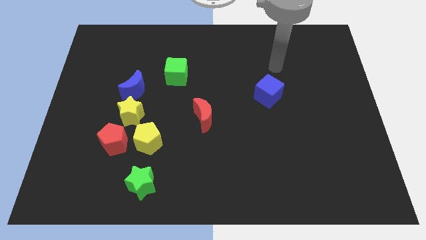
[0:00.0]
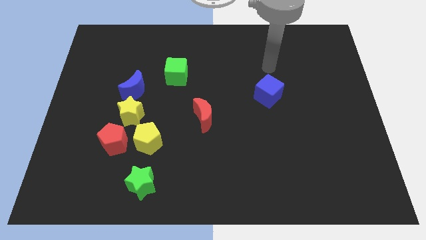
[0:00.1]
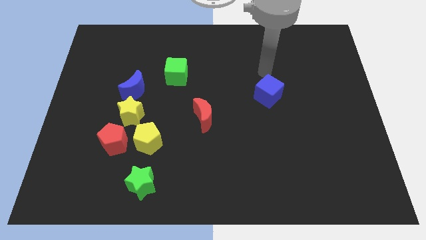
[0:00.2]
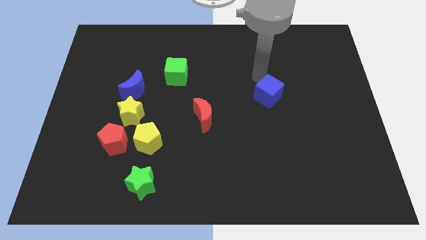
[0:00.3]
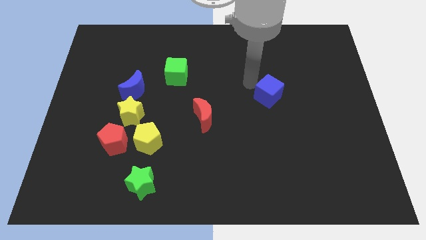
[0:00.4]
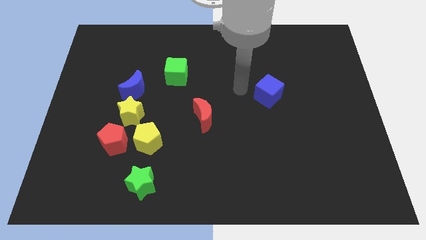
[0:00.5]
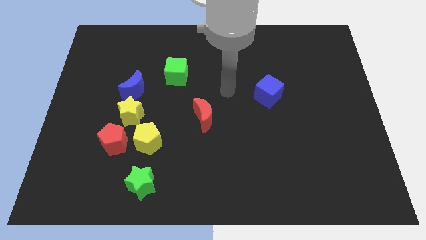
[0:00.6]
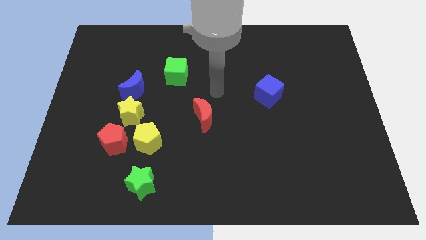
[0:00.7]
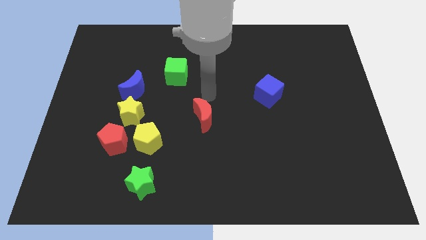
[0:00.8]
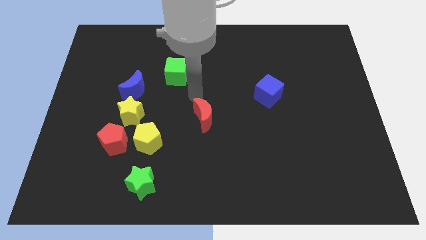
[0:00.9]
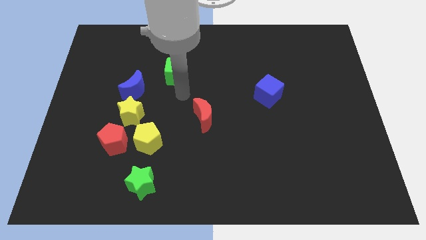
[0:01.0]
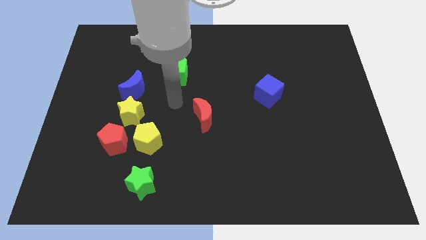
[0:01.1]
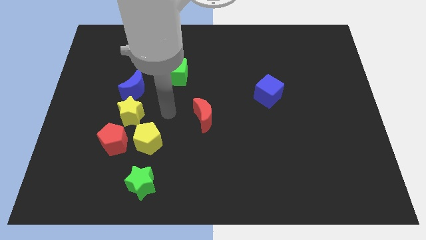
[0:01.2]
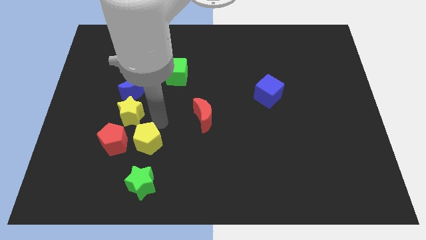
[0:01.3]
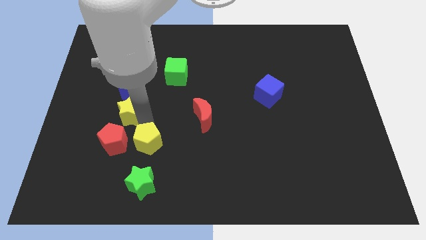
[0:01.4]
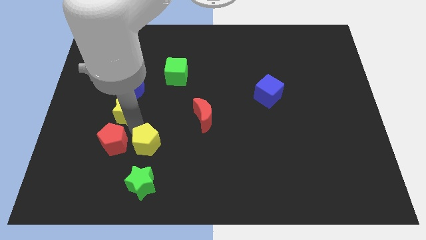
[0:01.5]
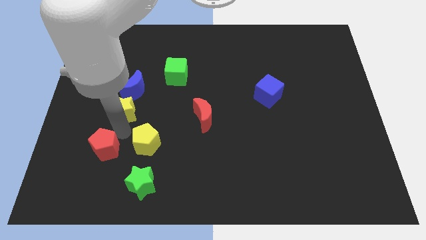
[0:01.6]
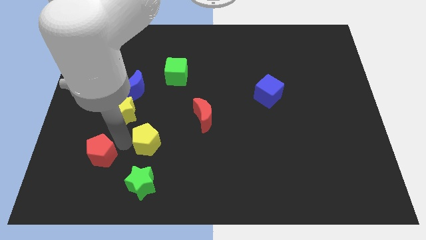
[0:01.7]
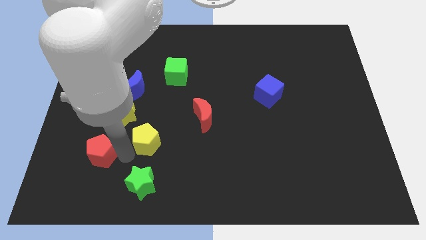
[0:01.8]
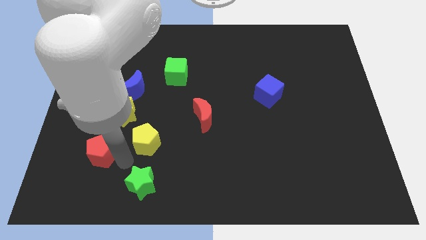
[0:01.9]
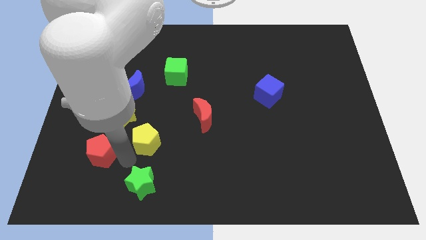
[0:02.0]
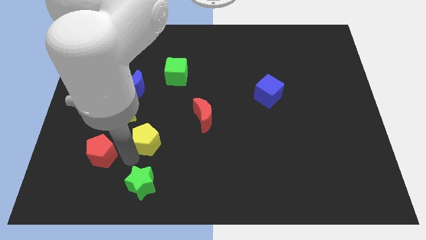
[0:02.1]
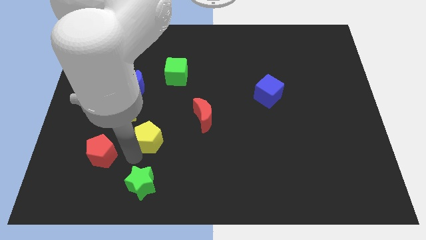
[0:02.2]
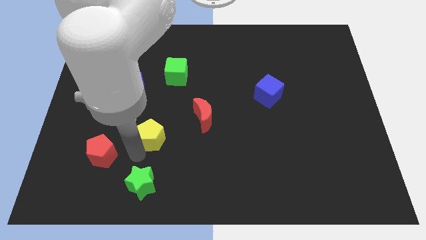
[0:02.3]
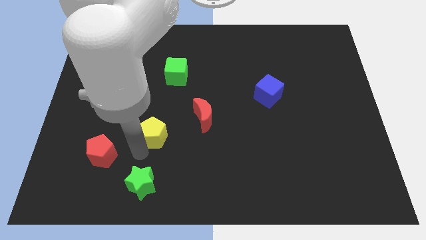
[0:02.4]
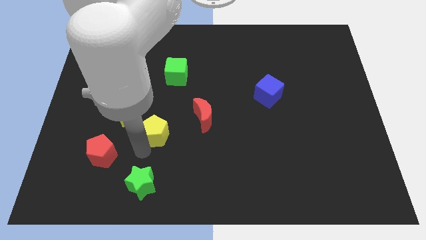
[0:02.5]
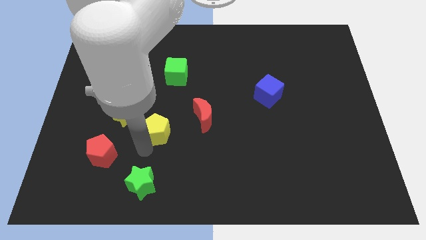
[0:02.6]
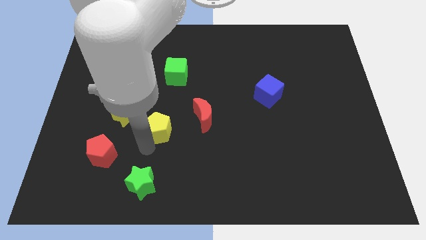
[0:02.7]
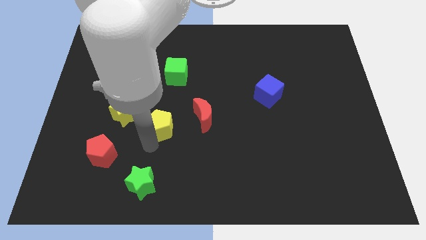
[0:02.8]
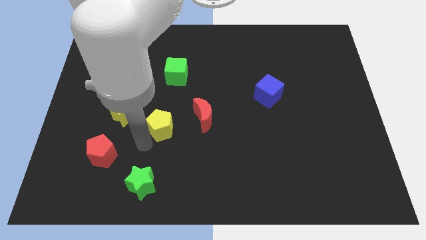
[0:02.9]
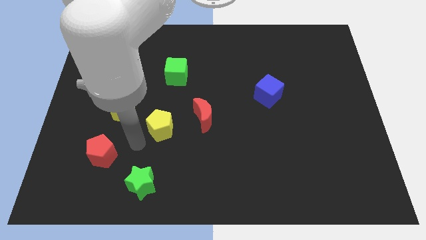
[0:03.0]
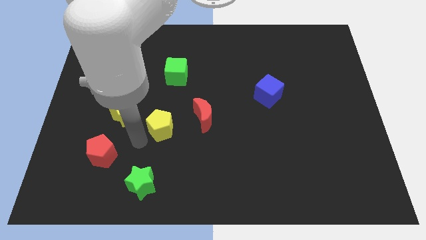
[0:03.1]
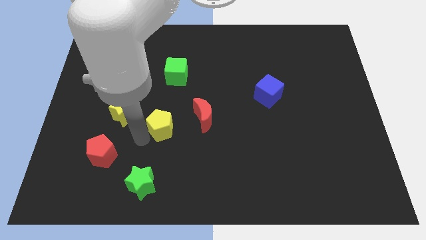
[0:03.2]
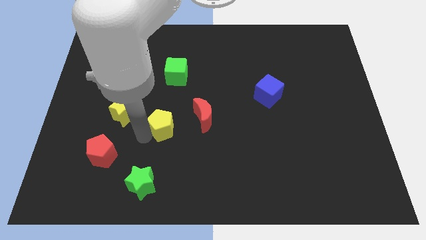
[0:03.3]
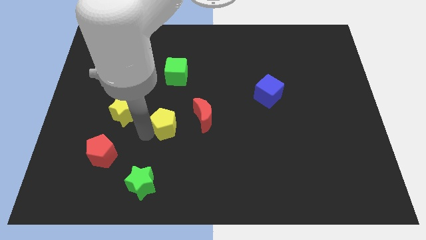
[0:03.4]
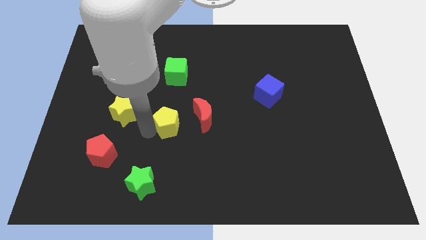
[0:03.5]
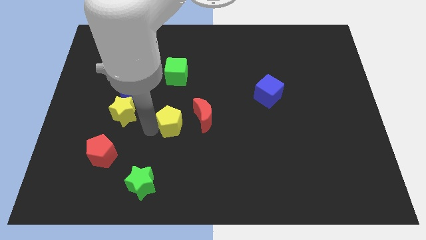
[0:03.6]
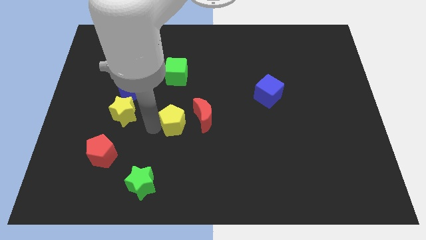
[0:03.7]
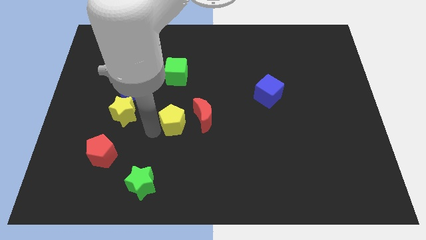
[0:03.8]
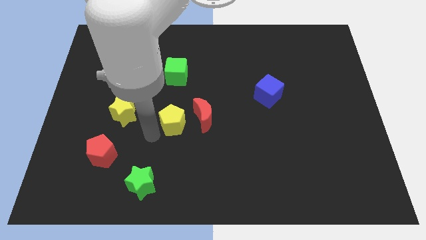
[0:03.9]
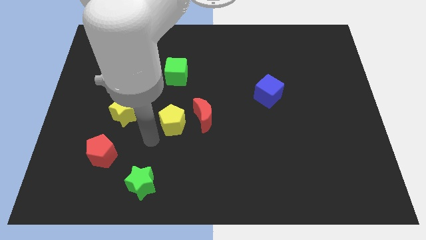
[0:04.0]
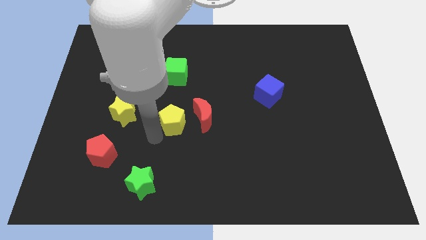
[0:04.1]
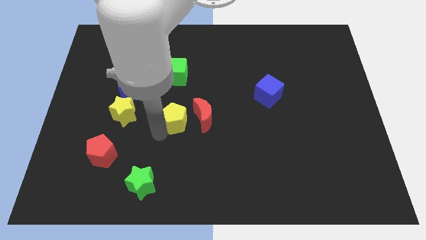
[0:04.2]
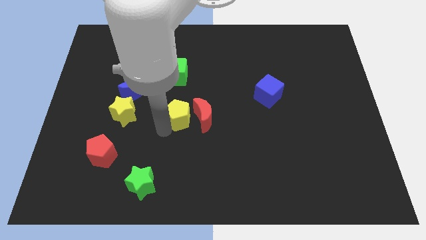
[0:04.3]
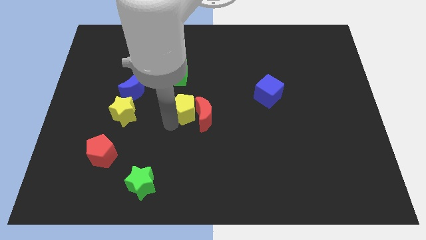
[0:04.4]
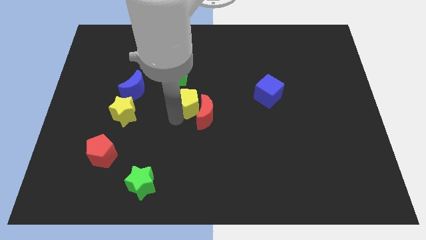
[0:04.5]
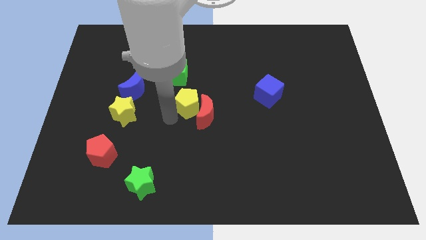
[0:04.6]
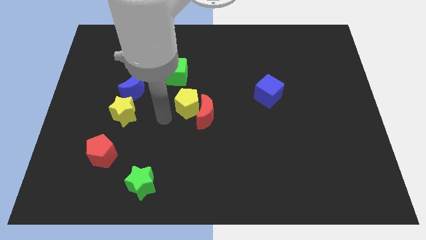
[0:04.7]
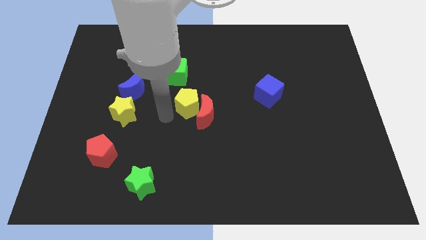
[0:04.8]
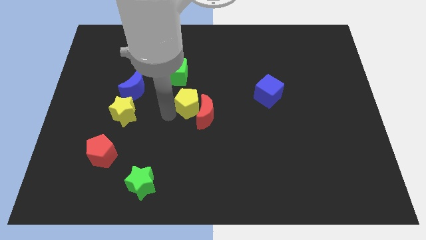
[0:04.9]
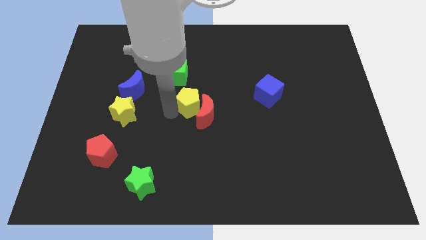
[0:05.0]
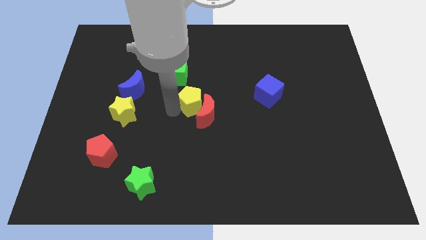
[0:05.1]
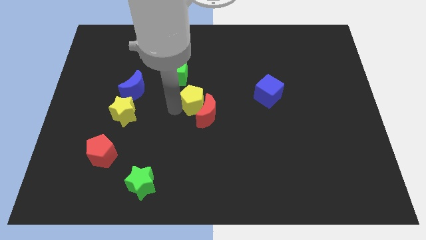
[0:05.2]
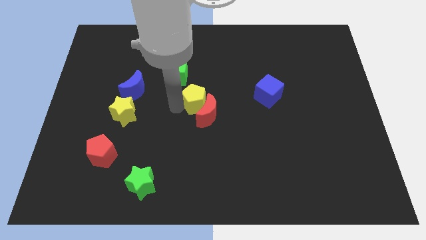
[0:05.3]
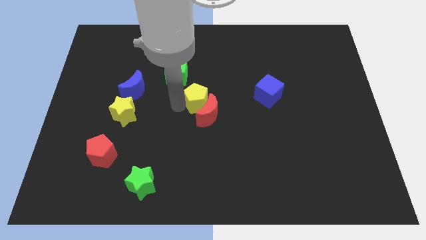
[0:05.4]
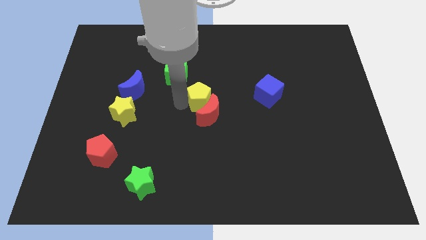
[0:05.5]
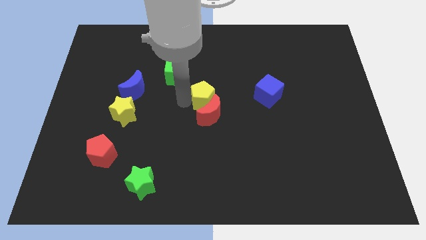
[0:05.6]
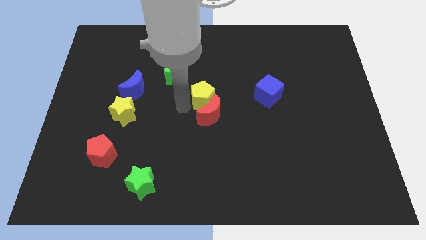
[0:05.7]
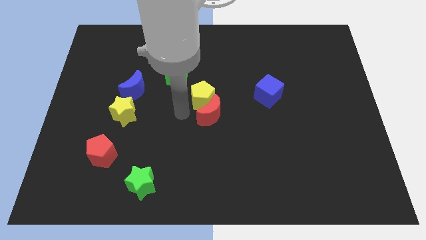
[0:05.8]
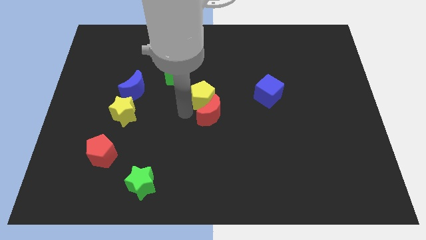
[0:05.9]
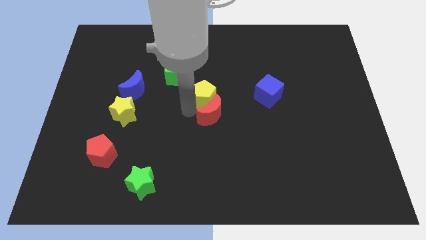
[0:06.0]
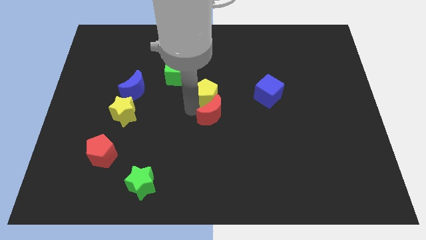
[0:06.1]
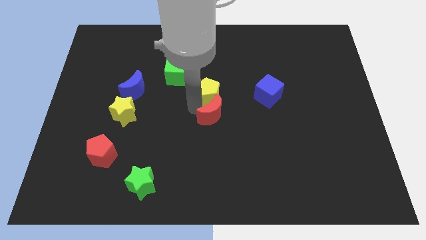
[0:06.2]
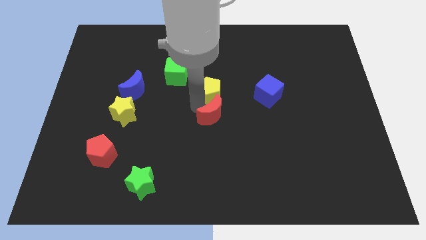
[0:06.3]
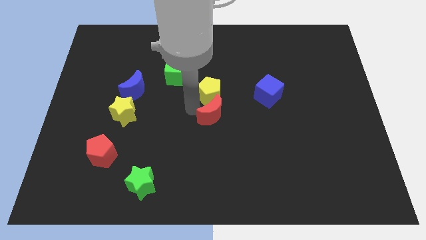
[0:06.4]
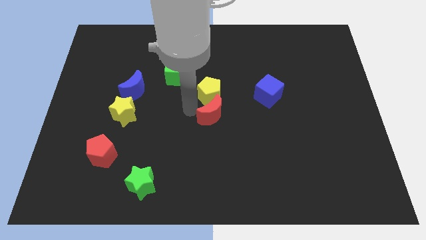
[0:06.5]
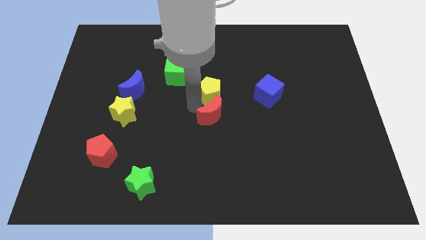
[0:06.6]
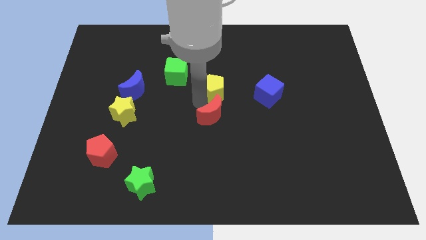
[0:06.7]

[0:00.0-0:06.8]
slide the yellow pentagon upwards and right

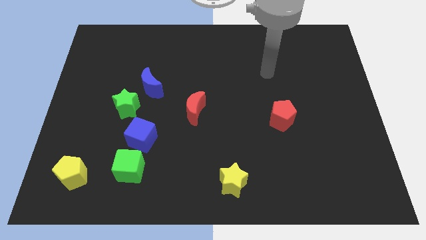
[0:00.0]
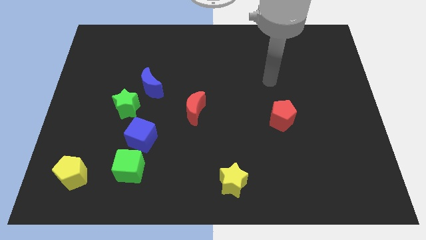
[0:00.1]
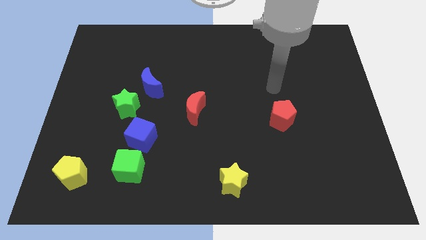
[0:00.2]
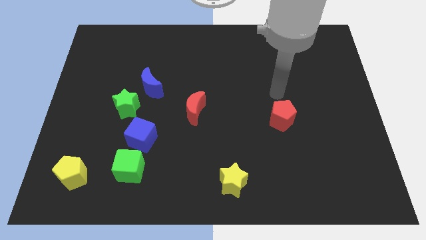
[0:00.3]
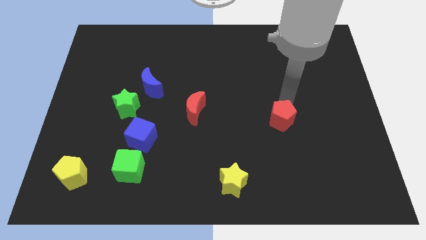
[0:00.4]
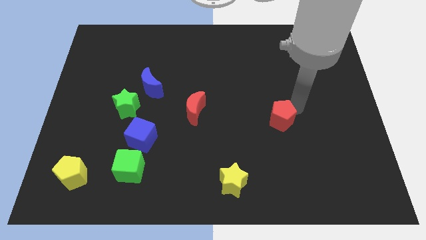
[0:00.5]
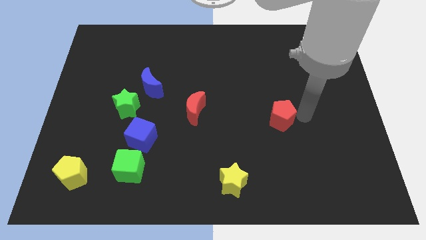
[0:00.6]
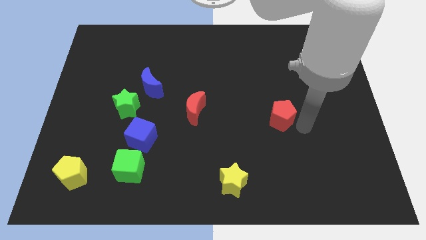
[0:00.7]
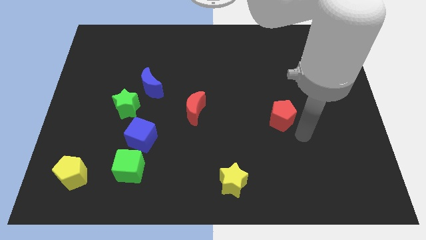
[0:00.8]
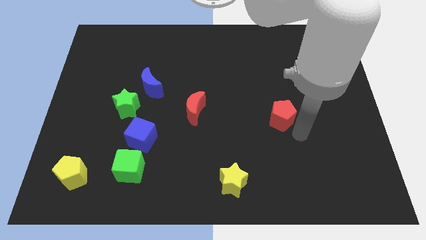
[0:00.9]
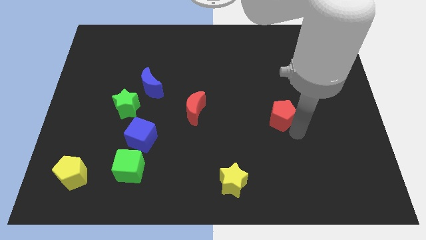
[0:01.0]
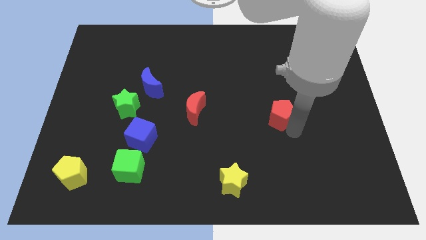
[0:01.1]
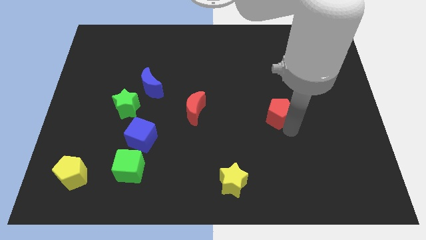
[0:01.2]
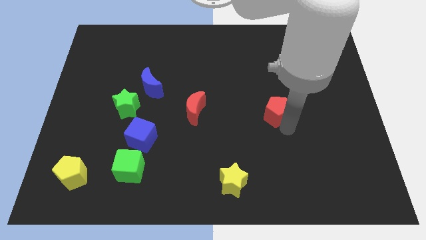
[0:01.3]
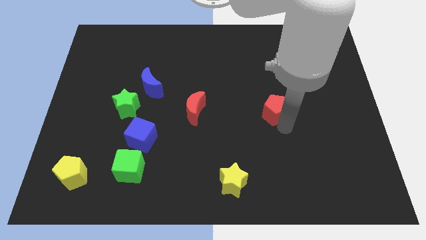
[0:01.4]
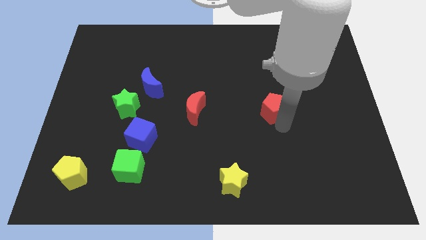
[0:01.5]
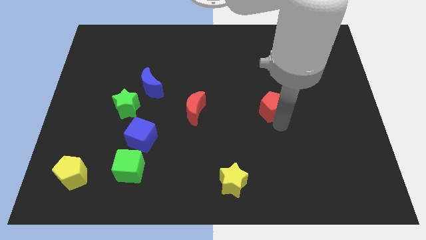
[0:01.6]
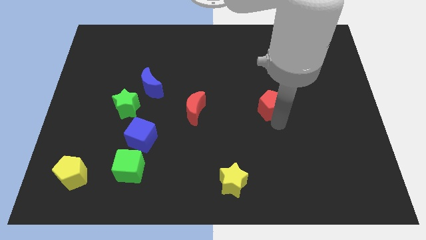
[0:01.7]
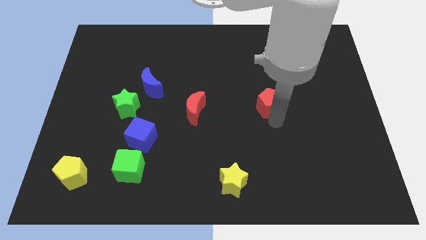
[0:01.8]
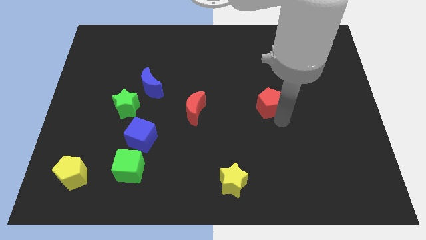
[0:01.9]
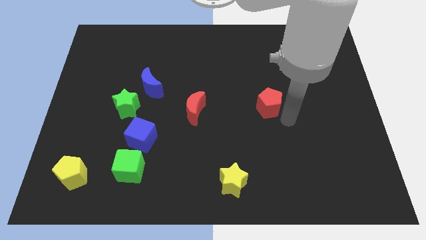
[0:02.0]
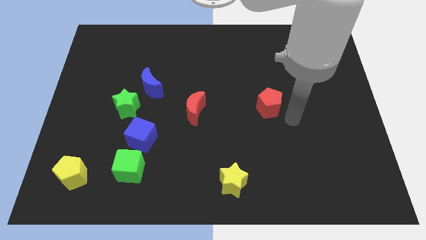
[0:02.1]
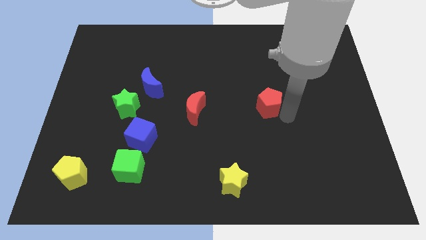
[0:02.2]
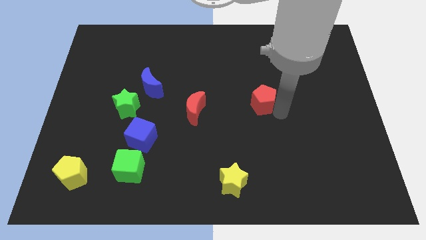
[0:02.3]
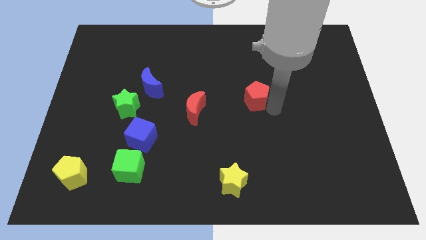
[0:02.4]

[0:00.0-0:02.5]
slightly move the red pentagon diagonally up and to the left
